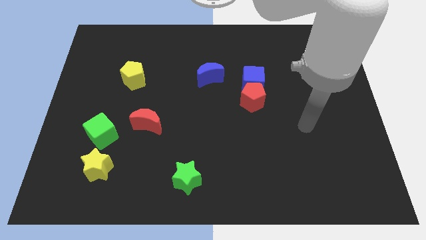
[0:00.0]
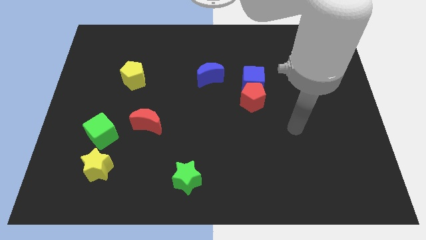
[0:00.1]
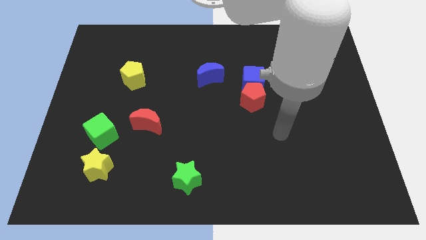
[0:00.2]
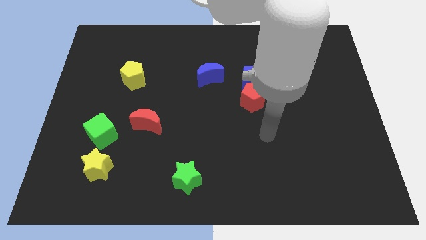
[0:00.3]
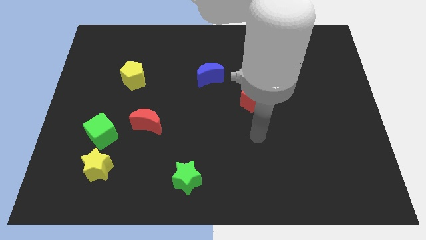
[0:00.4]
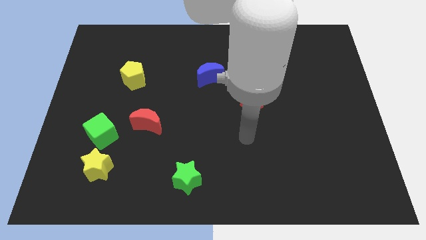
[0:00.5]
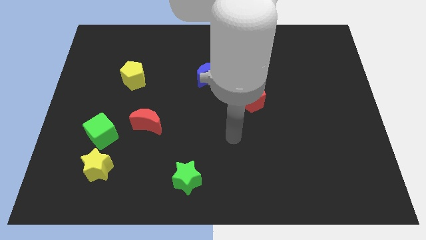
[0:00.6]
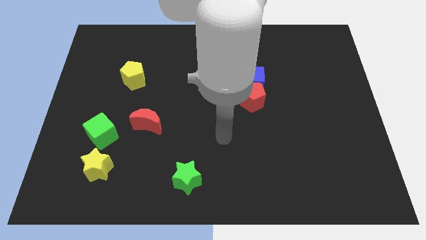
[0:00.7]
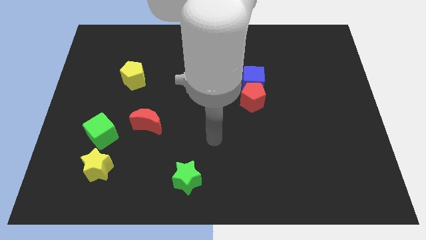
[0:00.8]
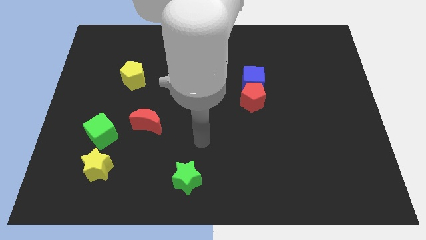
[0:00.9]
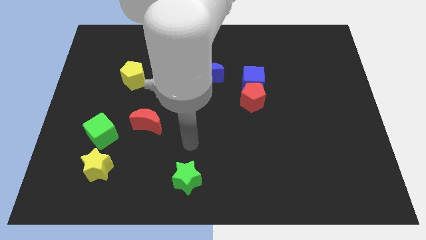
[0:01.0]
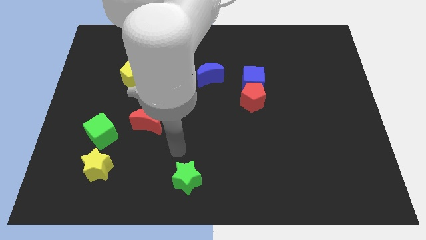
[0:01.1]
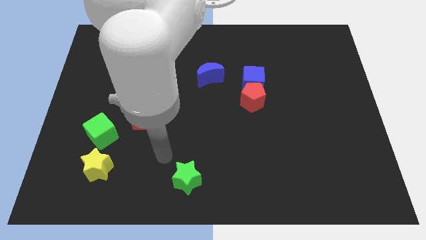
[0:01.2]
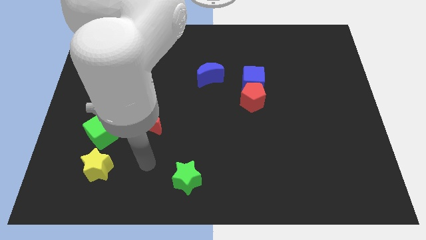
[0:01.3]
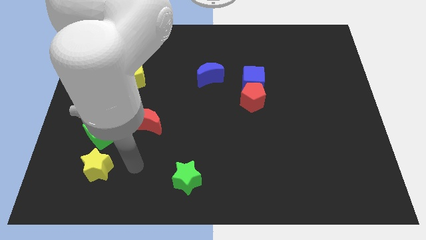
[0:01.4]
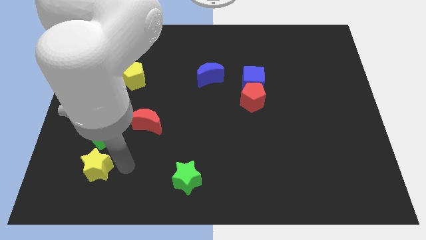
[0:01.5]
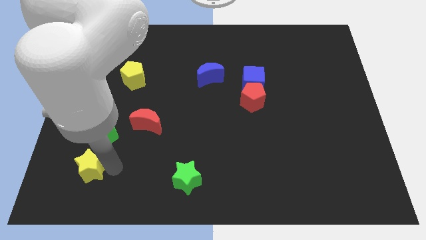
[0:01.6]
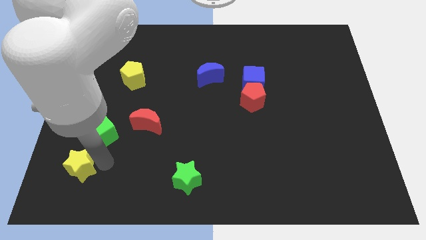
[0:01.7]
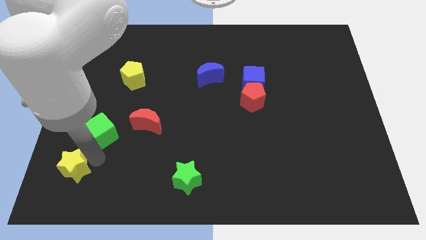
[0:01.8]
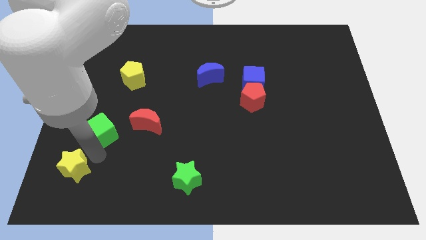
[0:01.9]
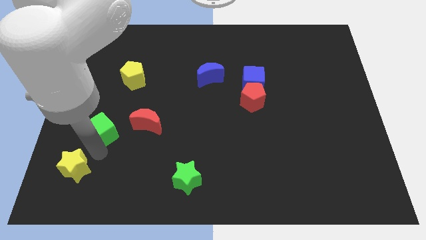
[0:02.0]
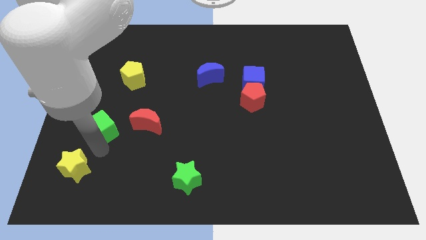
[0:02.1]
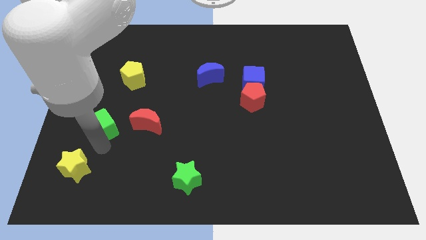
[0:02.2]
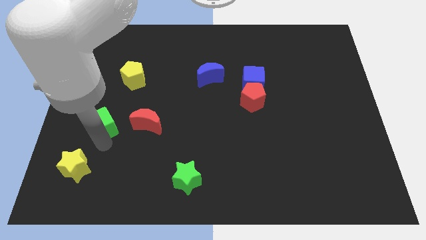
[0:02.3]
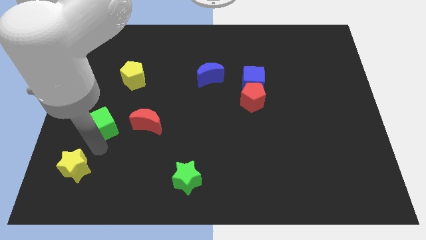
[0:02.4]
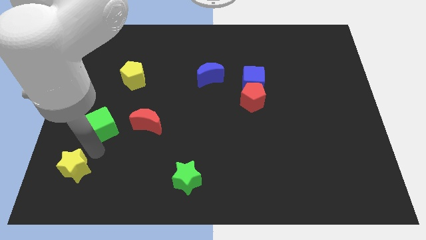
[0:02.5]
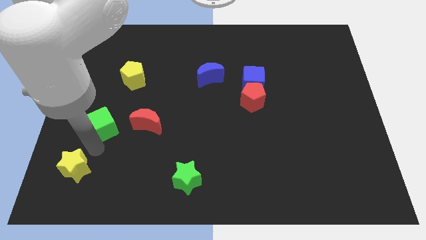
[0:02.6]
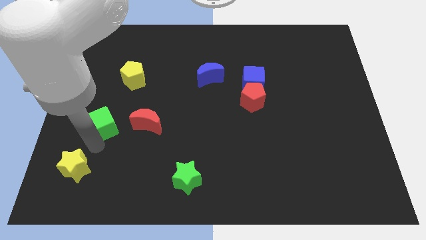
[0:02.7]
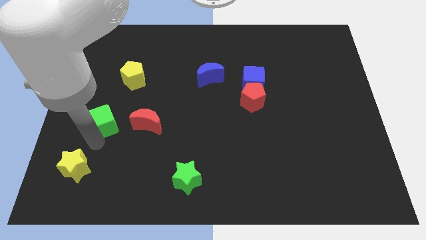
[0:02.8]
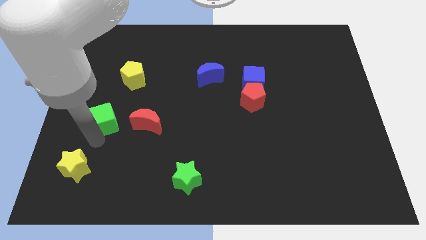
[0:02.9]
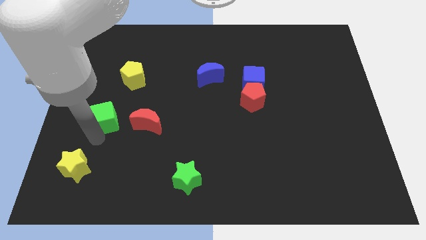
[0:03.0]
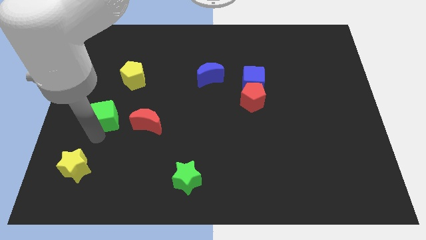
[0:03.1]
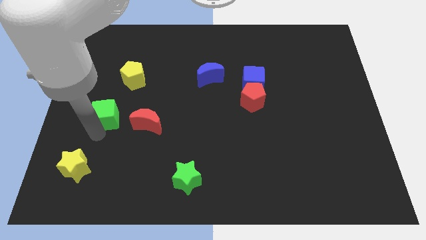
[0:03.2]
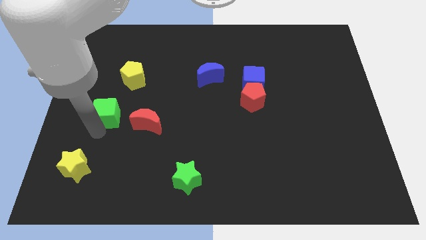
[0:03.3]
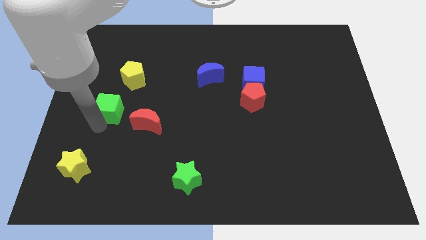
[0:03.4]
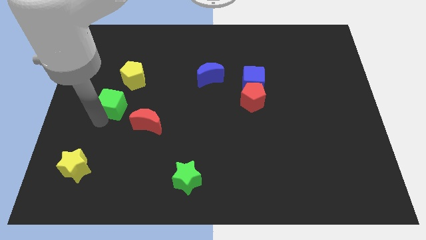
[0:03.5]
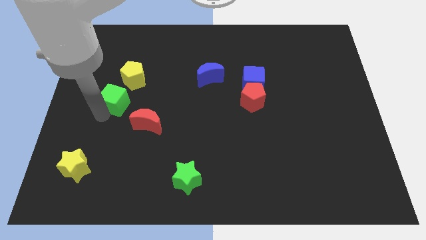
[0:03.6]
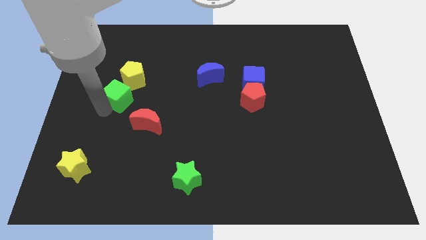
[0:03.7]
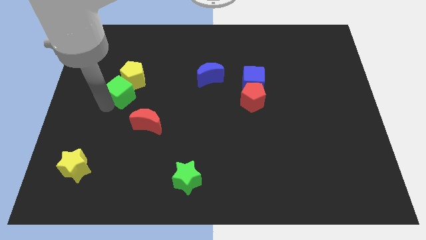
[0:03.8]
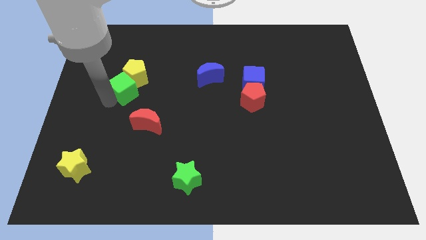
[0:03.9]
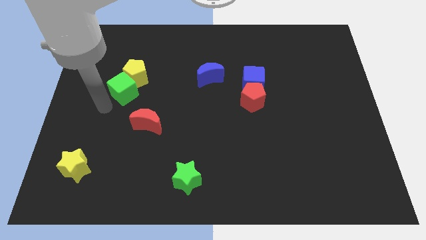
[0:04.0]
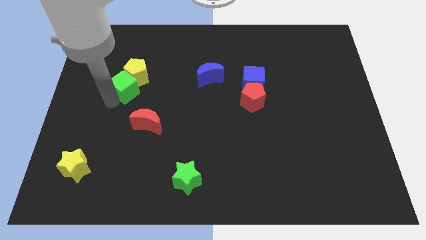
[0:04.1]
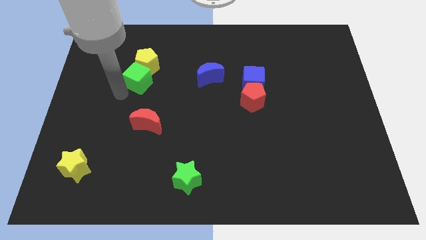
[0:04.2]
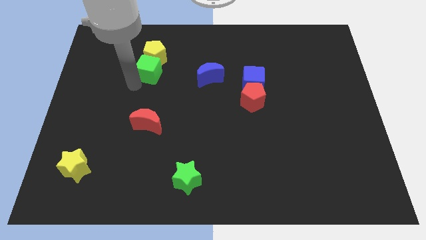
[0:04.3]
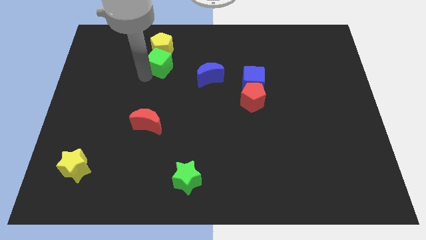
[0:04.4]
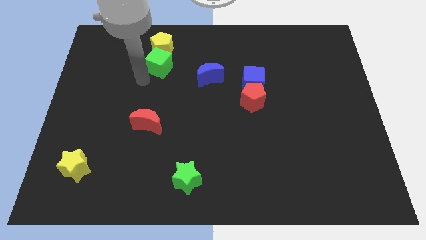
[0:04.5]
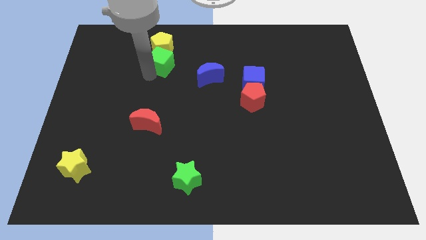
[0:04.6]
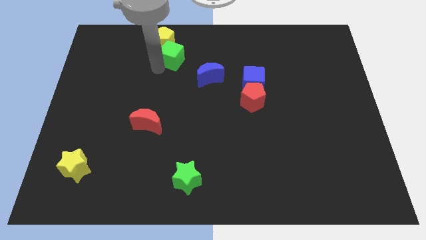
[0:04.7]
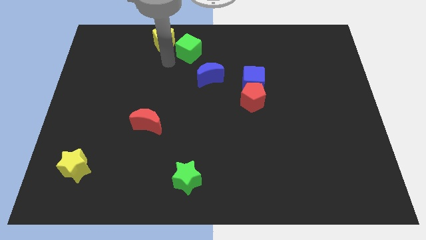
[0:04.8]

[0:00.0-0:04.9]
move the green cube to the towards your base

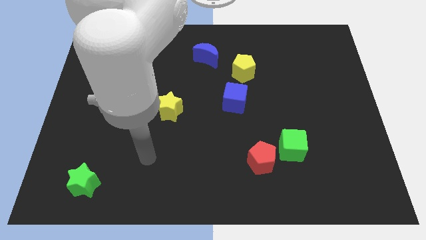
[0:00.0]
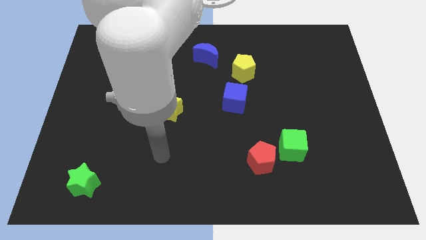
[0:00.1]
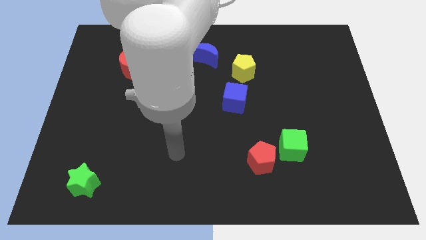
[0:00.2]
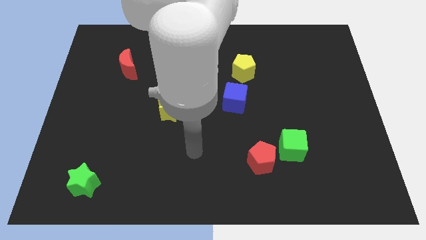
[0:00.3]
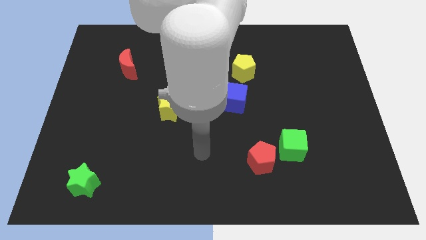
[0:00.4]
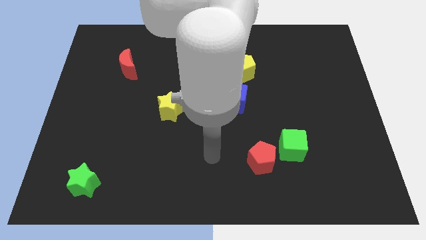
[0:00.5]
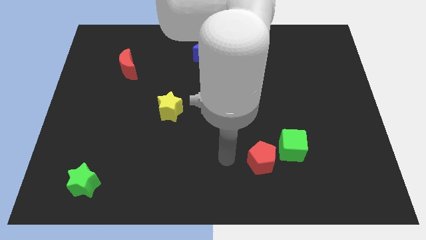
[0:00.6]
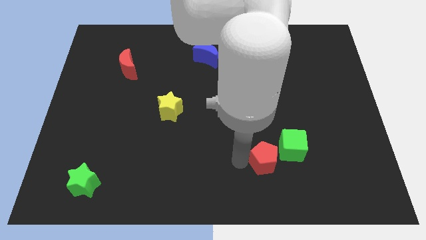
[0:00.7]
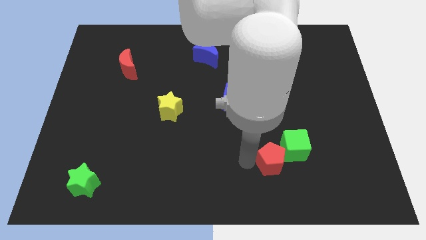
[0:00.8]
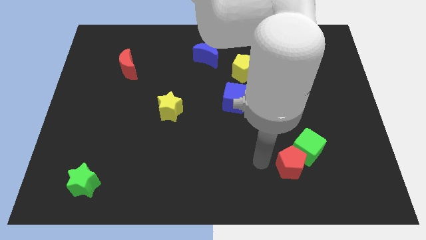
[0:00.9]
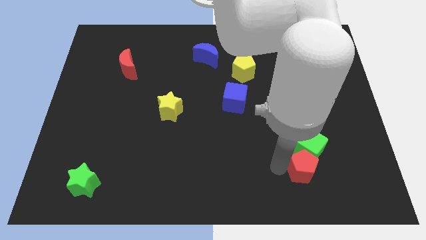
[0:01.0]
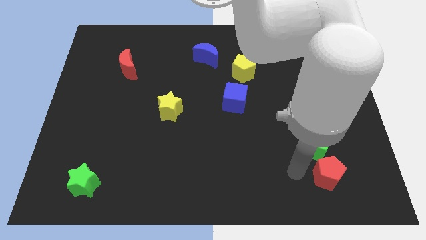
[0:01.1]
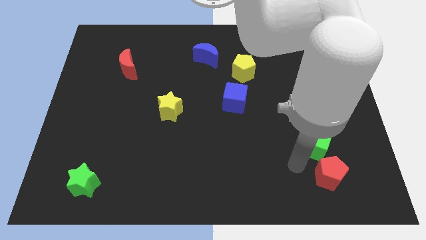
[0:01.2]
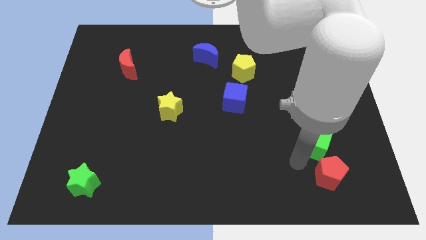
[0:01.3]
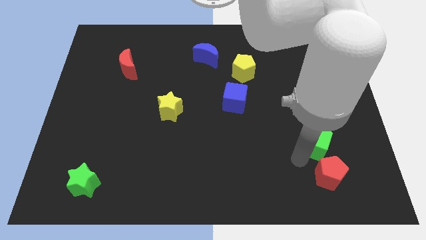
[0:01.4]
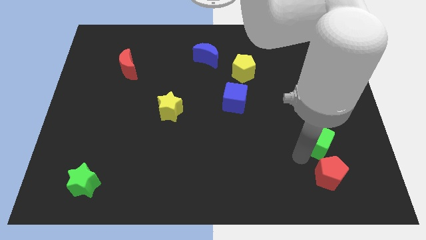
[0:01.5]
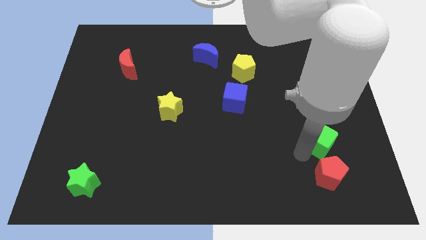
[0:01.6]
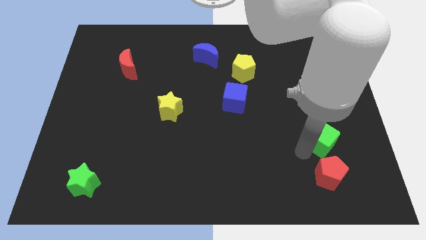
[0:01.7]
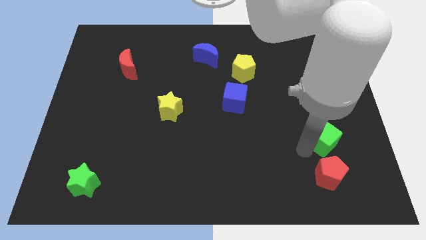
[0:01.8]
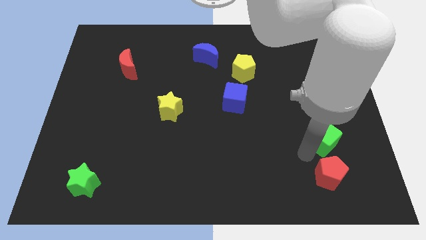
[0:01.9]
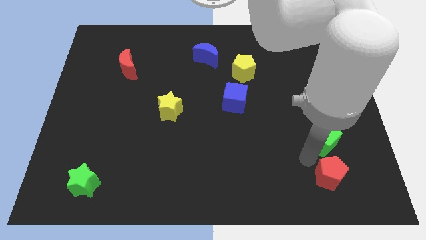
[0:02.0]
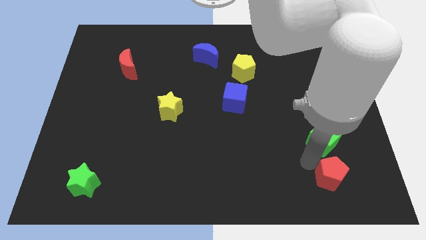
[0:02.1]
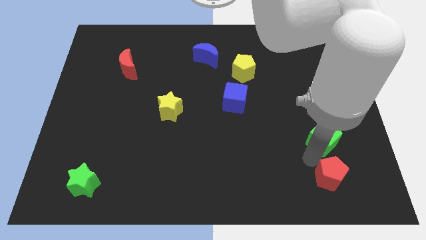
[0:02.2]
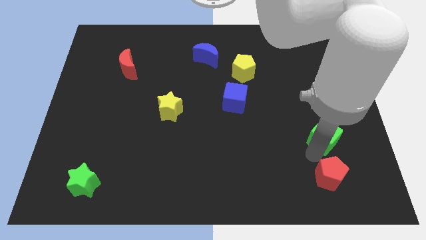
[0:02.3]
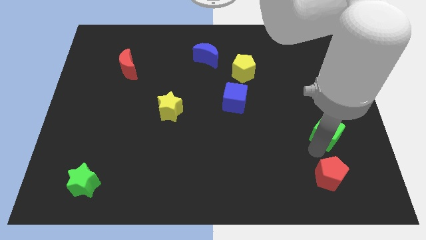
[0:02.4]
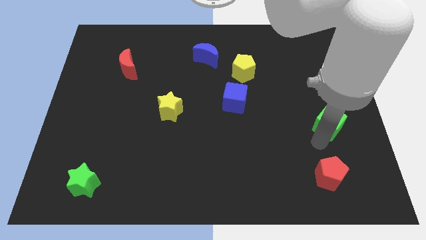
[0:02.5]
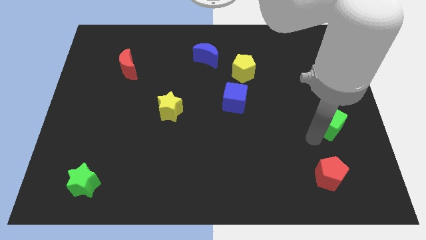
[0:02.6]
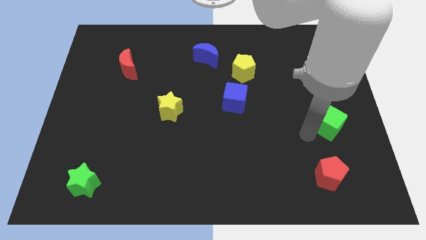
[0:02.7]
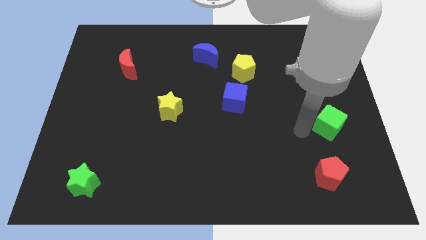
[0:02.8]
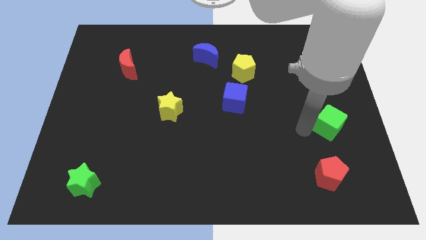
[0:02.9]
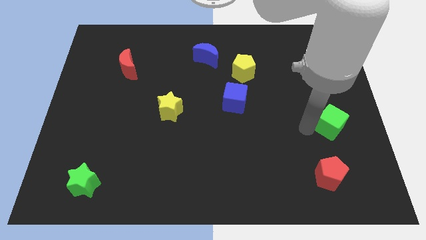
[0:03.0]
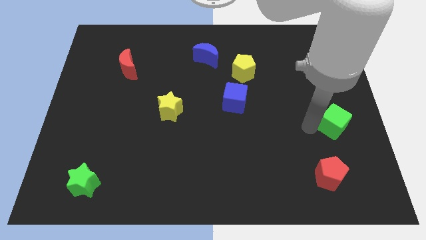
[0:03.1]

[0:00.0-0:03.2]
push the green cube to the right side
